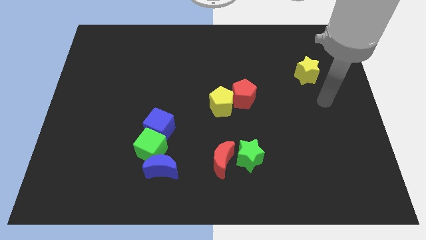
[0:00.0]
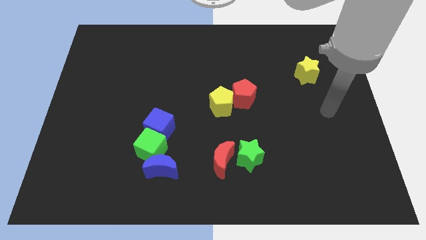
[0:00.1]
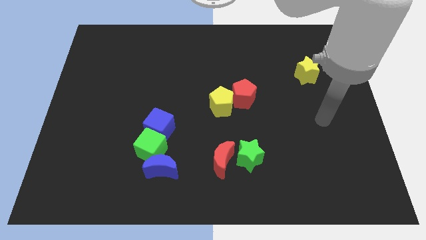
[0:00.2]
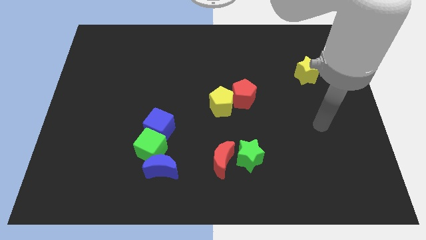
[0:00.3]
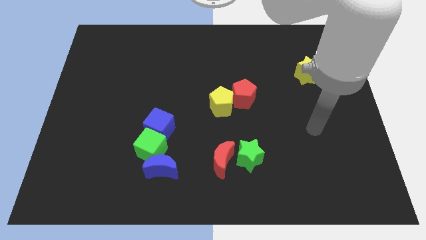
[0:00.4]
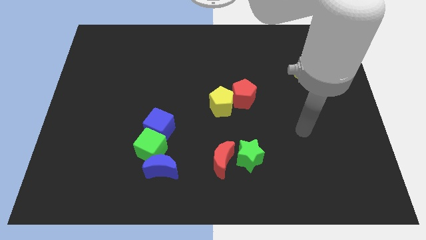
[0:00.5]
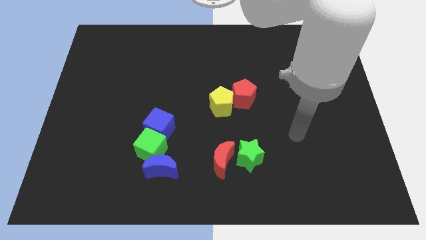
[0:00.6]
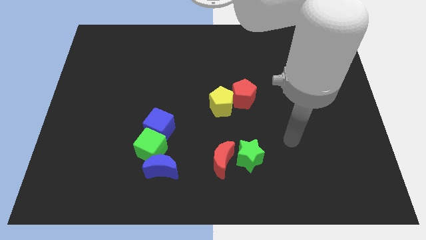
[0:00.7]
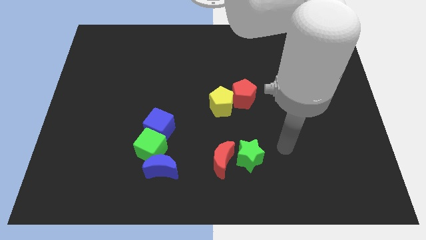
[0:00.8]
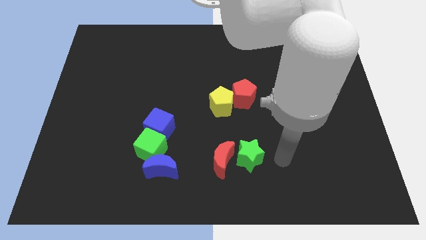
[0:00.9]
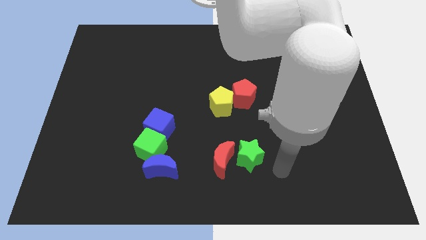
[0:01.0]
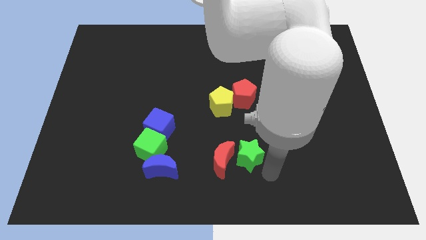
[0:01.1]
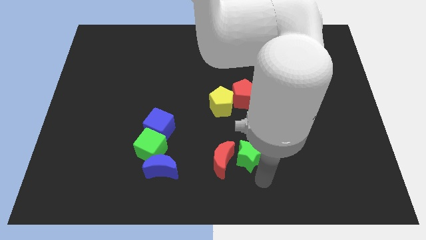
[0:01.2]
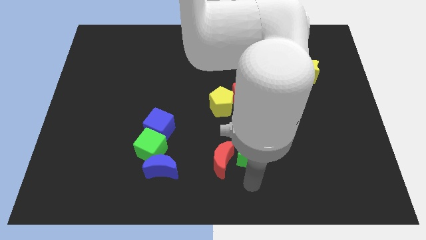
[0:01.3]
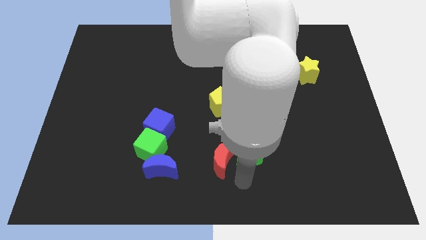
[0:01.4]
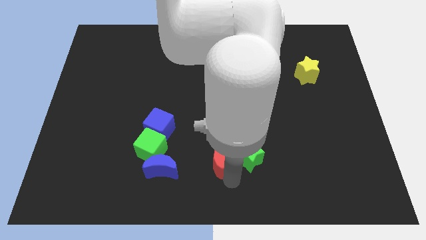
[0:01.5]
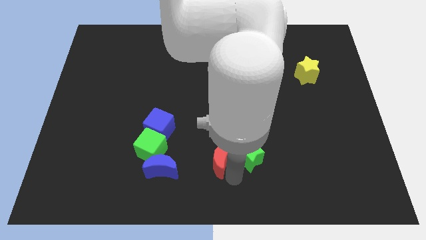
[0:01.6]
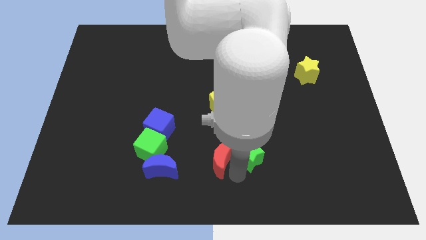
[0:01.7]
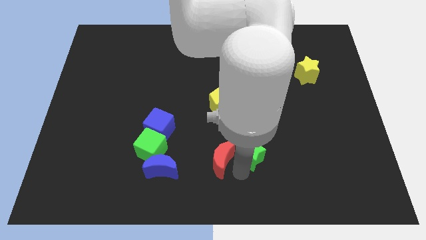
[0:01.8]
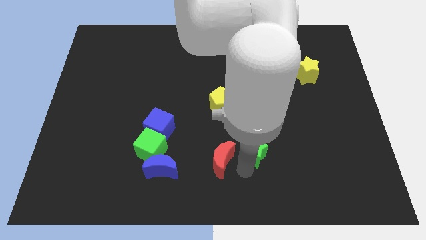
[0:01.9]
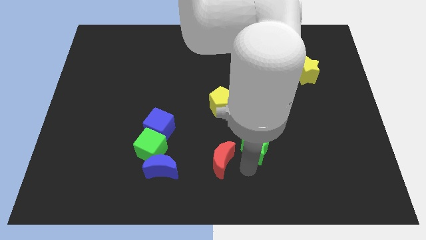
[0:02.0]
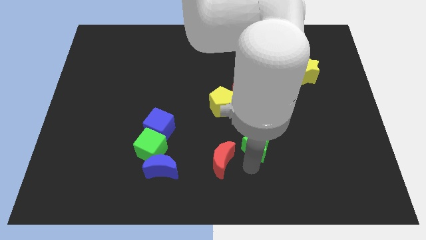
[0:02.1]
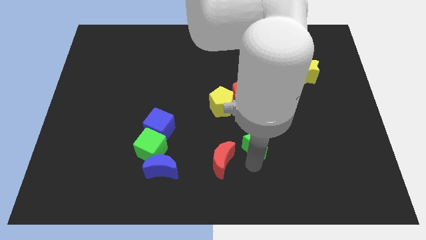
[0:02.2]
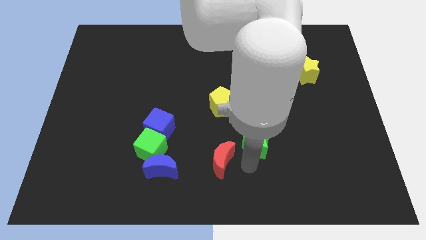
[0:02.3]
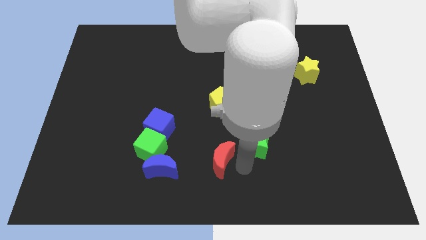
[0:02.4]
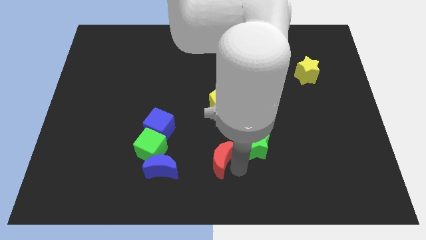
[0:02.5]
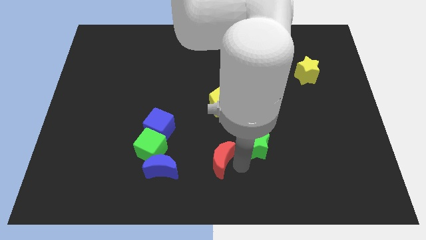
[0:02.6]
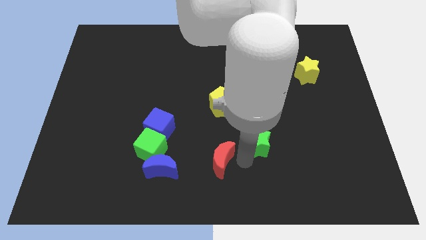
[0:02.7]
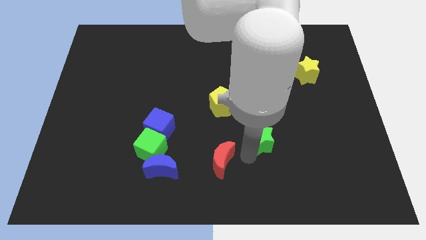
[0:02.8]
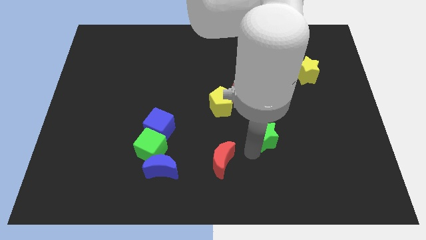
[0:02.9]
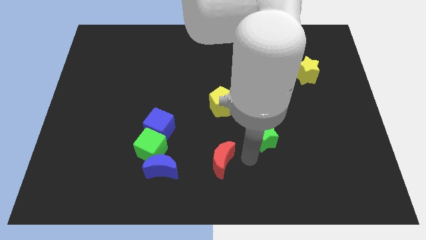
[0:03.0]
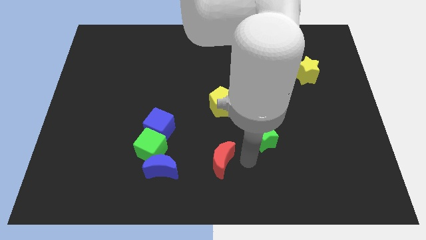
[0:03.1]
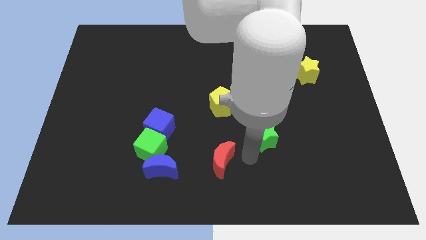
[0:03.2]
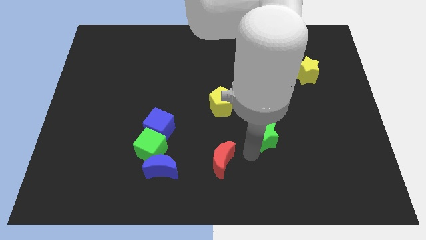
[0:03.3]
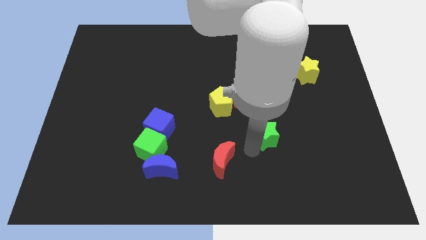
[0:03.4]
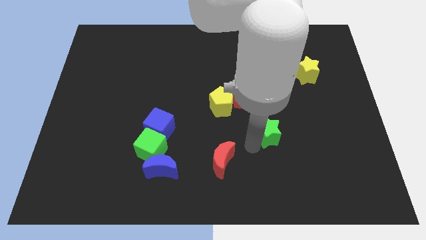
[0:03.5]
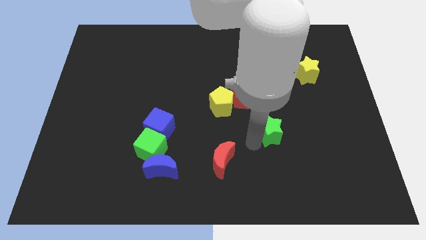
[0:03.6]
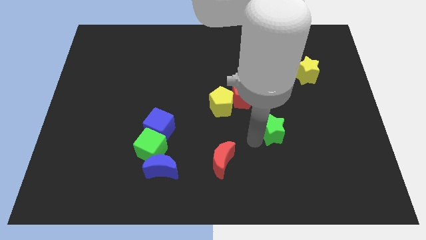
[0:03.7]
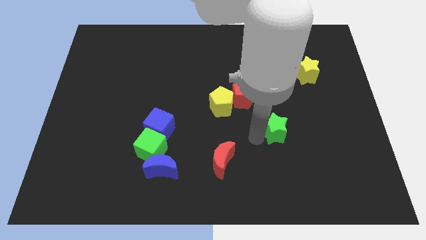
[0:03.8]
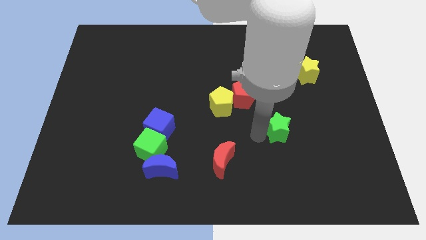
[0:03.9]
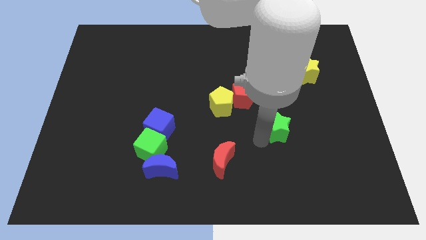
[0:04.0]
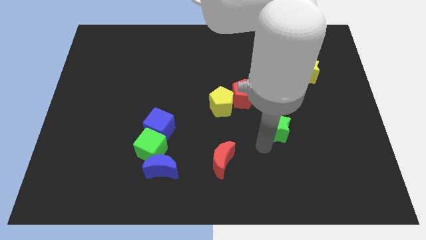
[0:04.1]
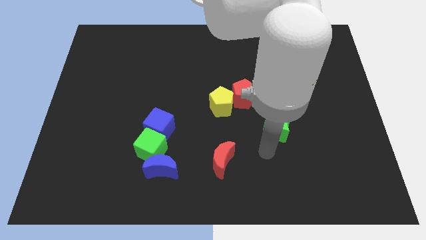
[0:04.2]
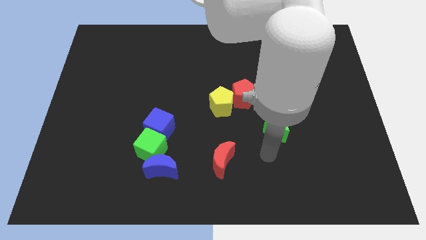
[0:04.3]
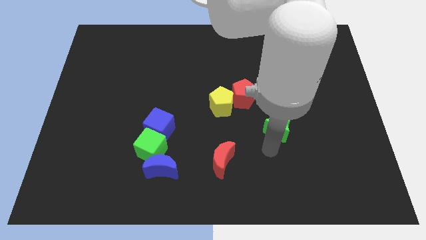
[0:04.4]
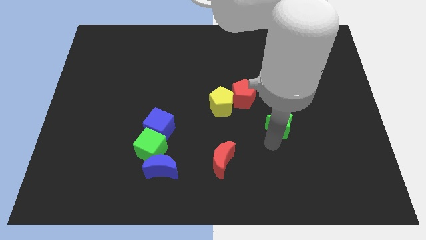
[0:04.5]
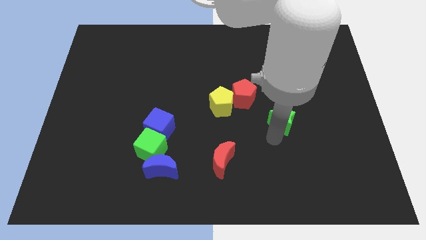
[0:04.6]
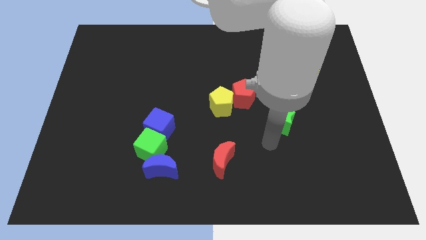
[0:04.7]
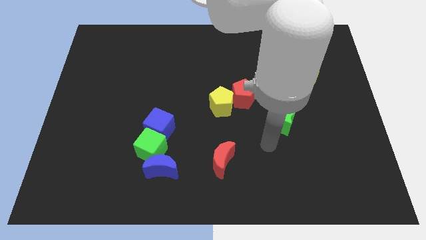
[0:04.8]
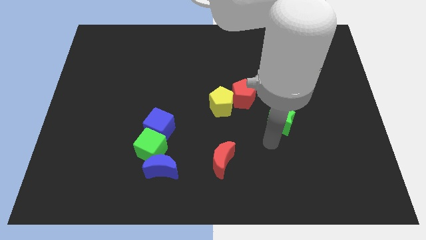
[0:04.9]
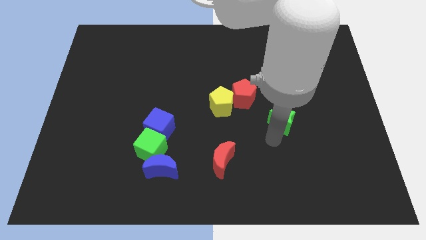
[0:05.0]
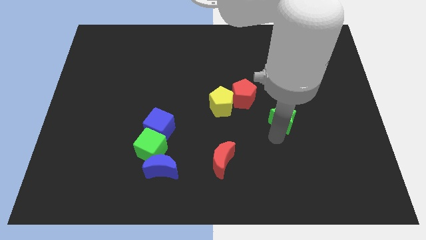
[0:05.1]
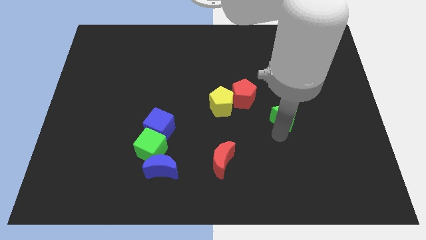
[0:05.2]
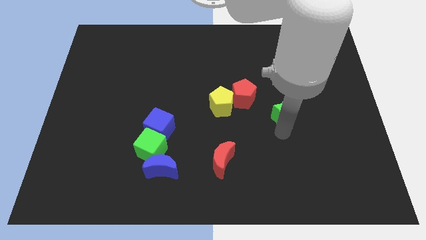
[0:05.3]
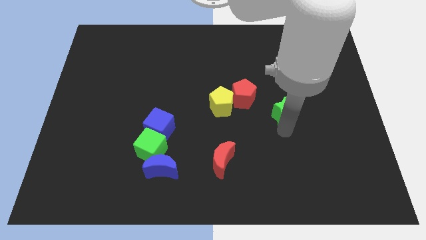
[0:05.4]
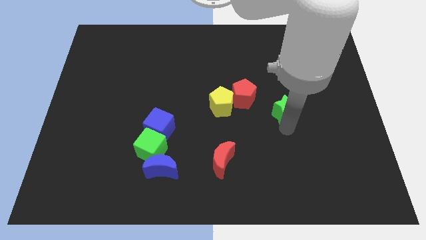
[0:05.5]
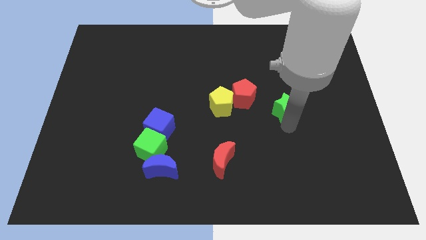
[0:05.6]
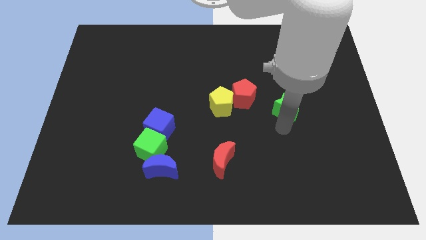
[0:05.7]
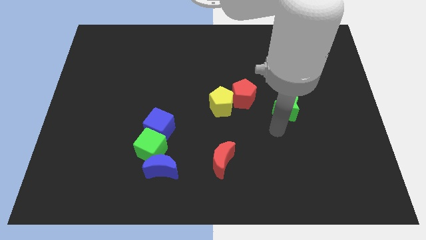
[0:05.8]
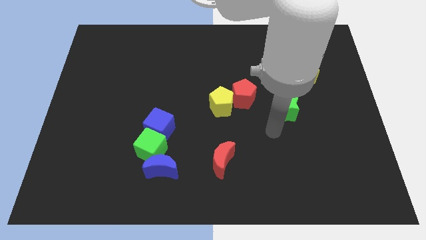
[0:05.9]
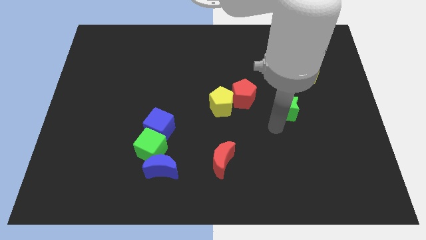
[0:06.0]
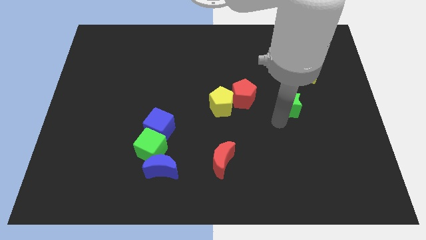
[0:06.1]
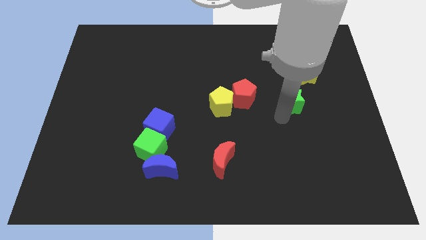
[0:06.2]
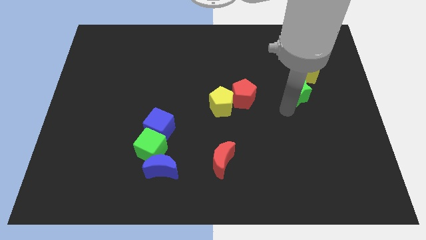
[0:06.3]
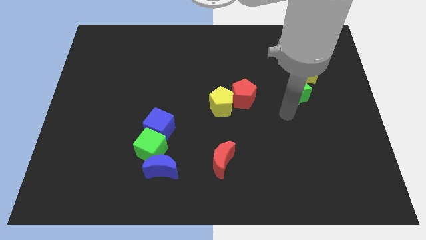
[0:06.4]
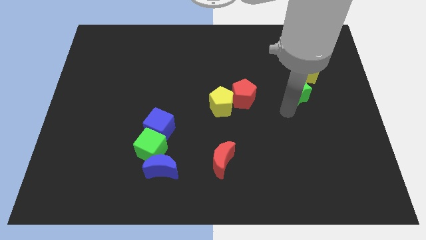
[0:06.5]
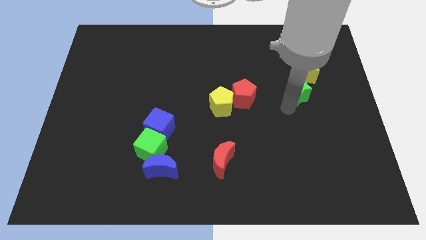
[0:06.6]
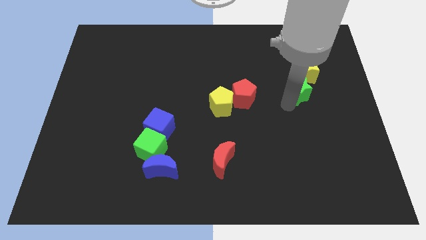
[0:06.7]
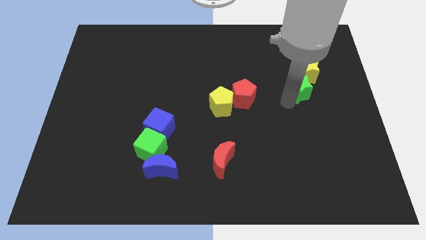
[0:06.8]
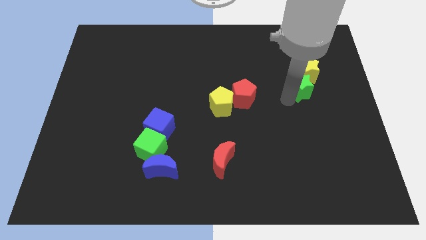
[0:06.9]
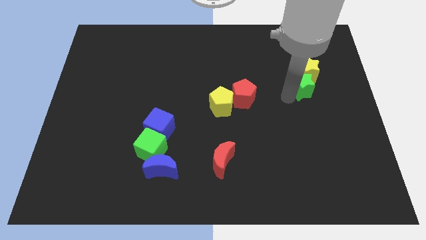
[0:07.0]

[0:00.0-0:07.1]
push the green star to the yellow star

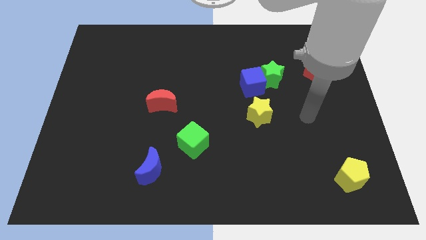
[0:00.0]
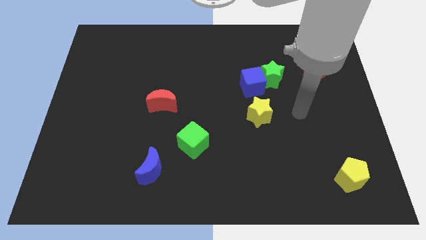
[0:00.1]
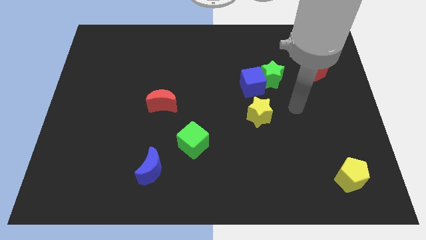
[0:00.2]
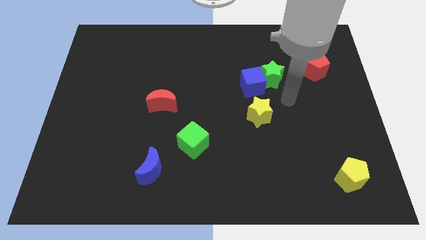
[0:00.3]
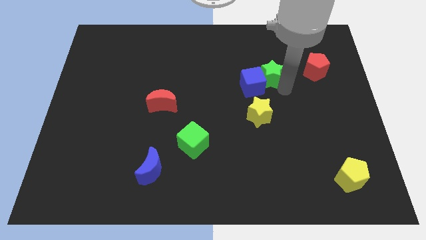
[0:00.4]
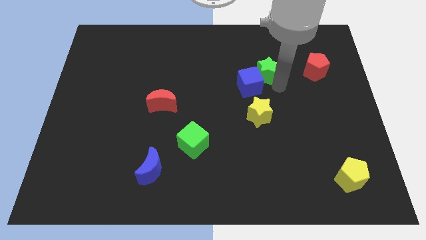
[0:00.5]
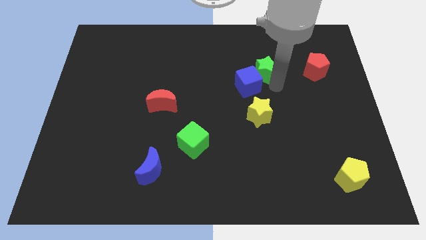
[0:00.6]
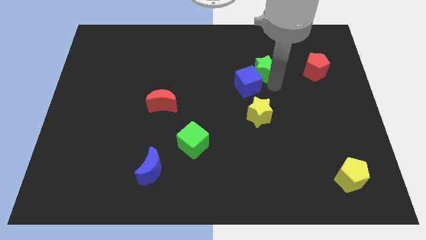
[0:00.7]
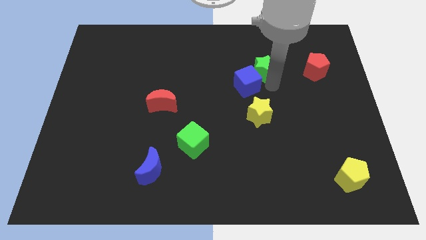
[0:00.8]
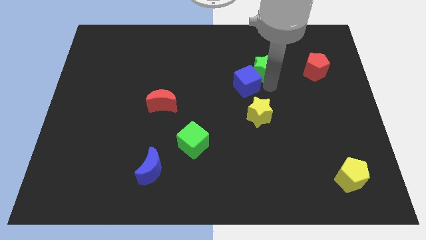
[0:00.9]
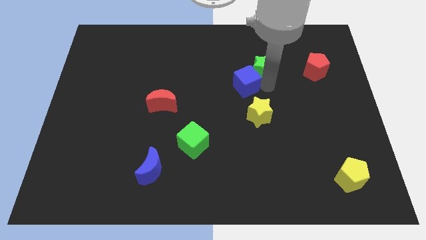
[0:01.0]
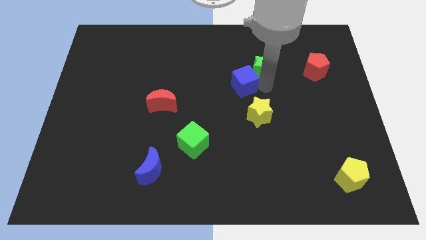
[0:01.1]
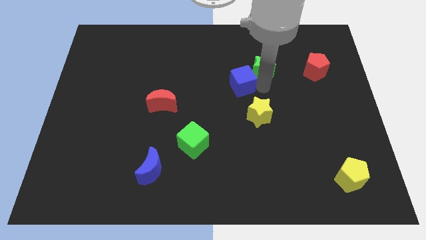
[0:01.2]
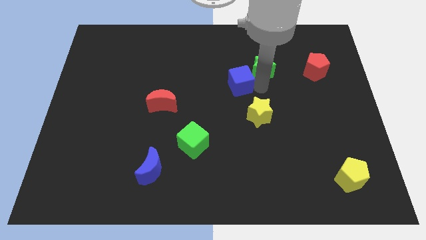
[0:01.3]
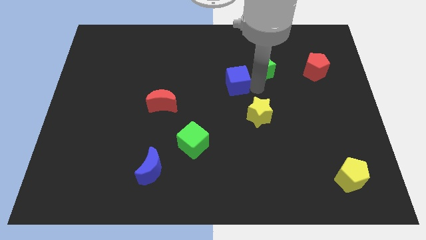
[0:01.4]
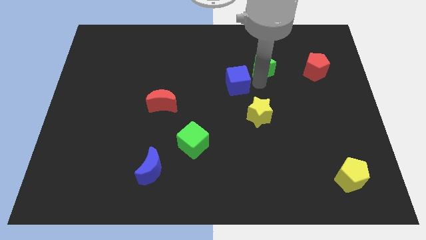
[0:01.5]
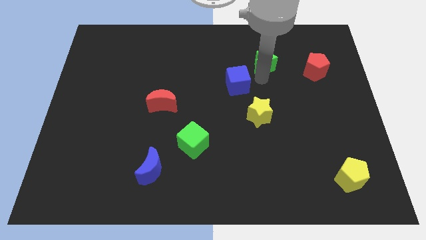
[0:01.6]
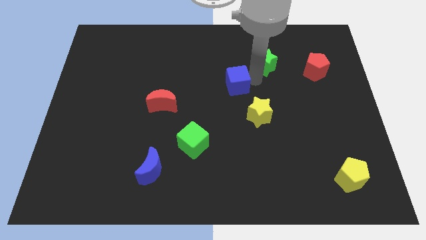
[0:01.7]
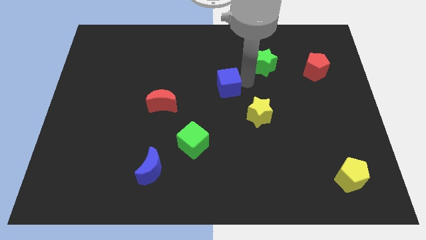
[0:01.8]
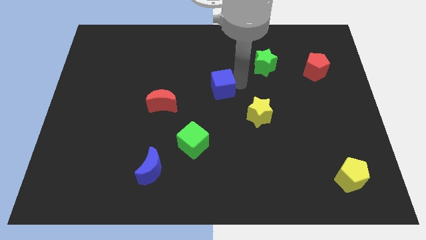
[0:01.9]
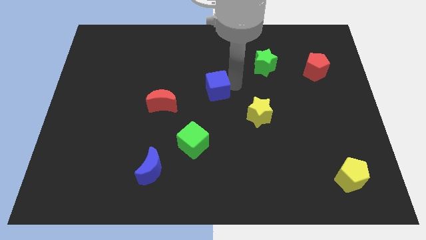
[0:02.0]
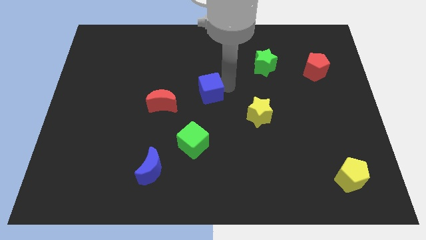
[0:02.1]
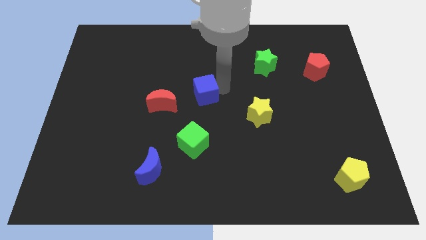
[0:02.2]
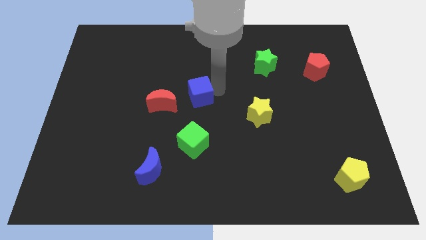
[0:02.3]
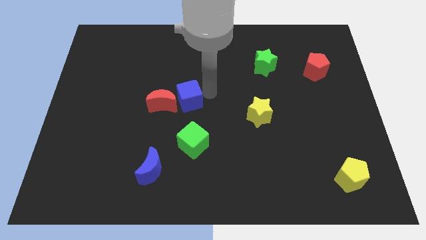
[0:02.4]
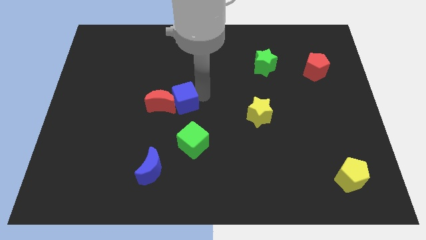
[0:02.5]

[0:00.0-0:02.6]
slide the blue cube close to the red moon
